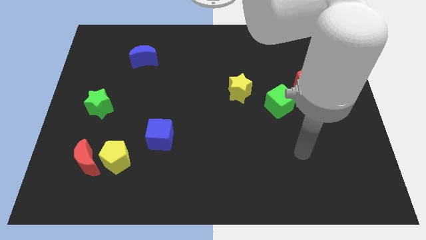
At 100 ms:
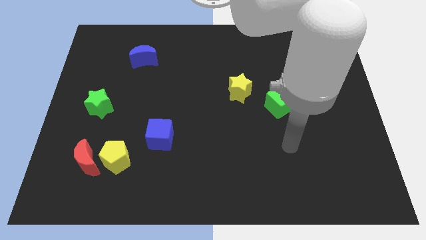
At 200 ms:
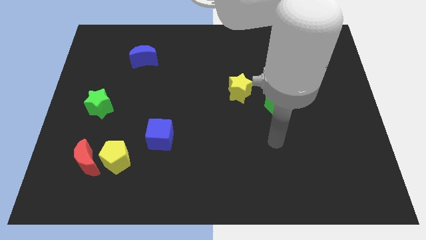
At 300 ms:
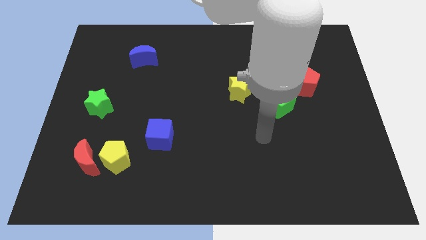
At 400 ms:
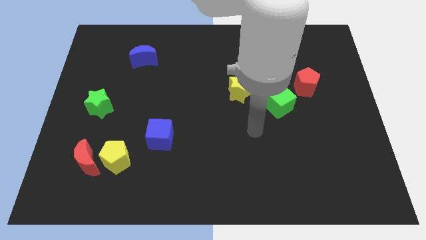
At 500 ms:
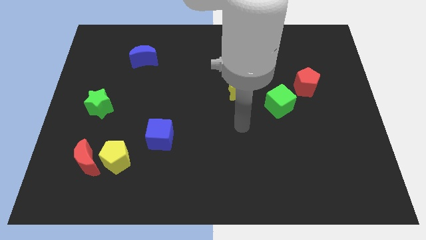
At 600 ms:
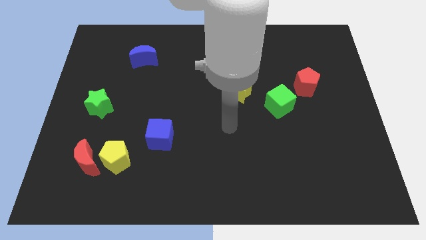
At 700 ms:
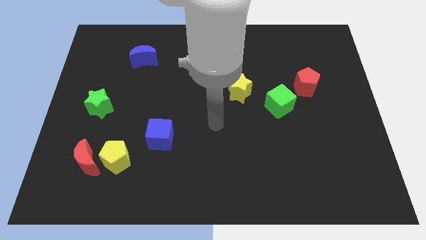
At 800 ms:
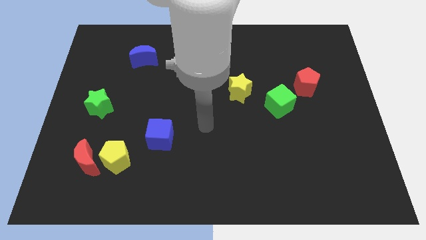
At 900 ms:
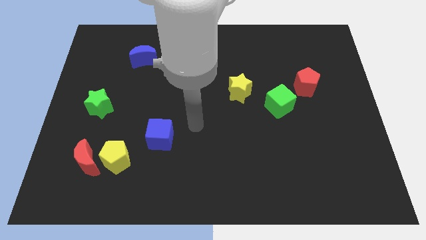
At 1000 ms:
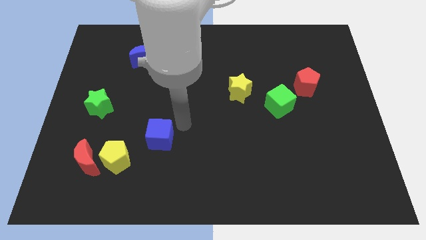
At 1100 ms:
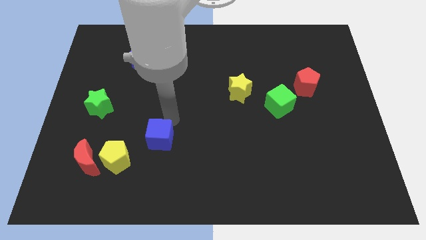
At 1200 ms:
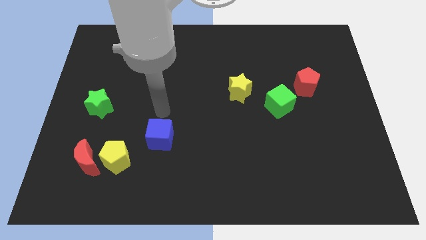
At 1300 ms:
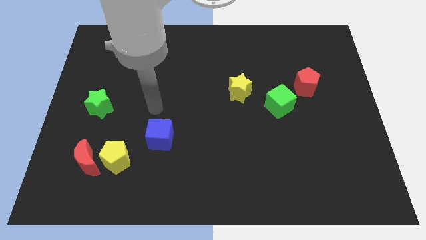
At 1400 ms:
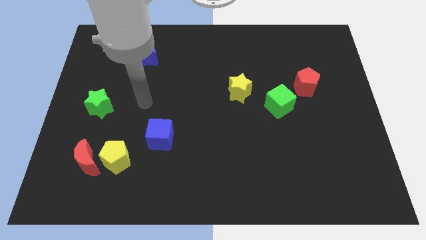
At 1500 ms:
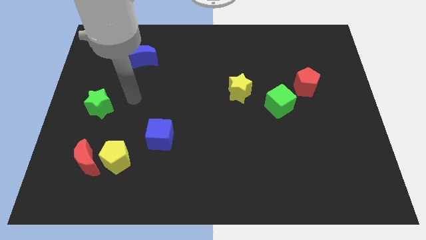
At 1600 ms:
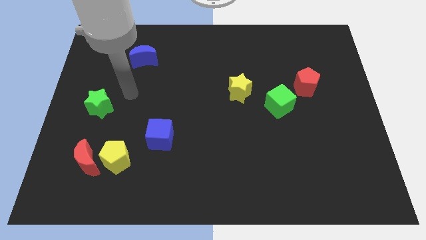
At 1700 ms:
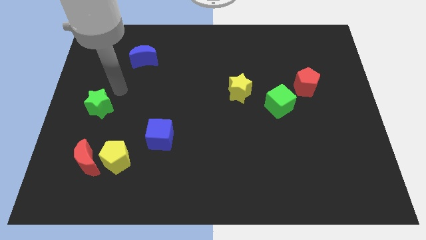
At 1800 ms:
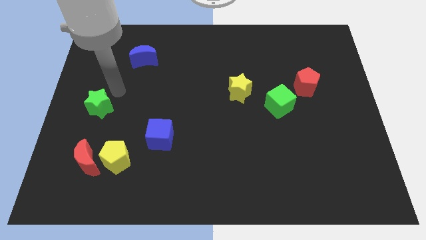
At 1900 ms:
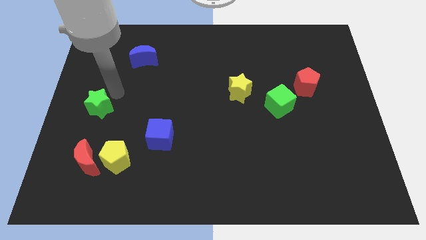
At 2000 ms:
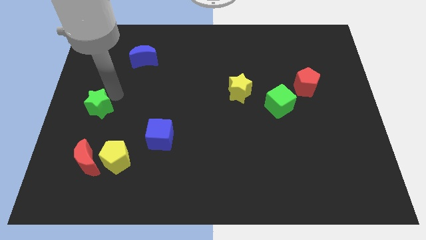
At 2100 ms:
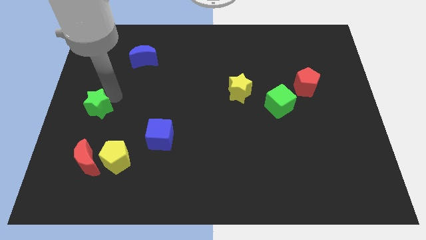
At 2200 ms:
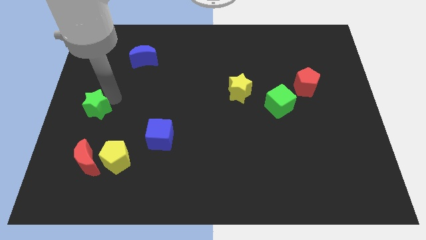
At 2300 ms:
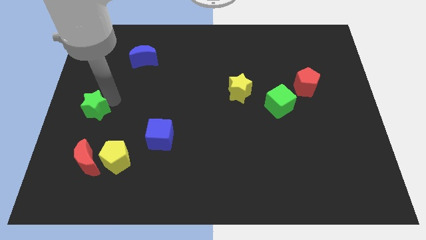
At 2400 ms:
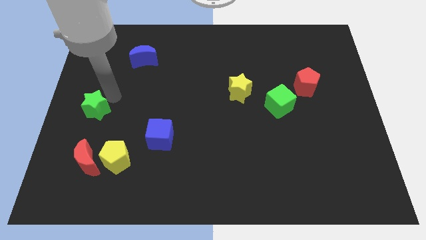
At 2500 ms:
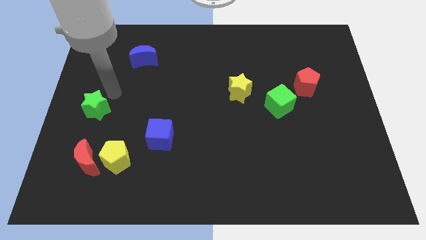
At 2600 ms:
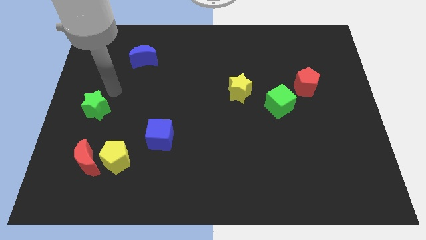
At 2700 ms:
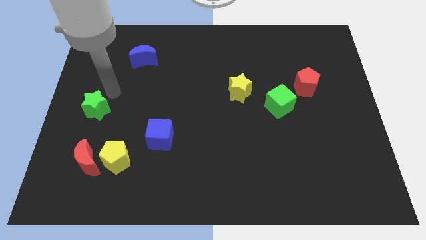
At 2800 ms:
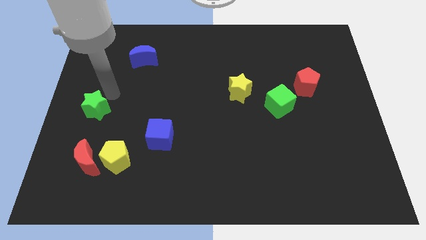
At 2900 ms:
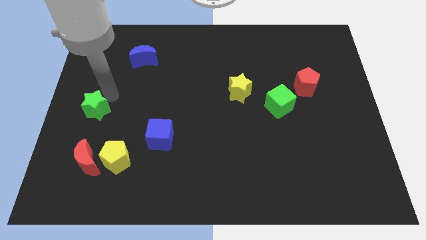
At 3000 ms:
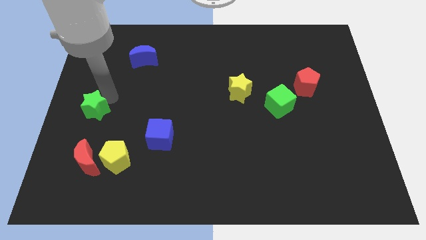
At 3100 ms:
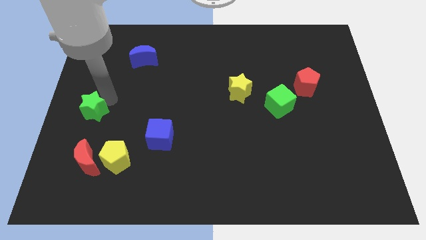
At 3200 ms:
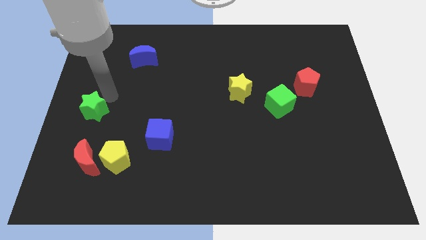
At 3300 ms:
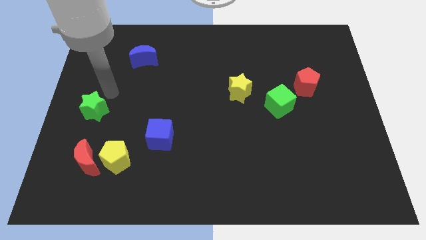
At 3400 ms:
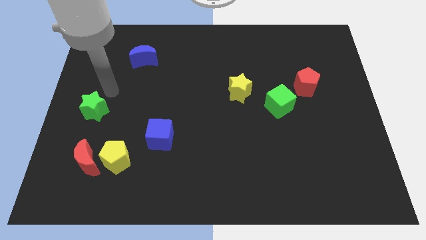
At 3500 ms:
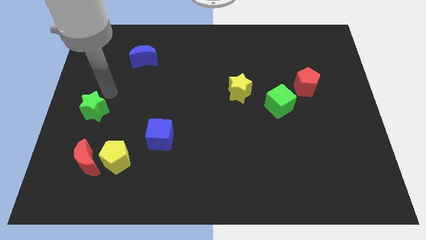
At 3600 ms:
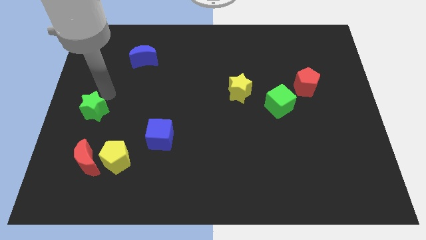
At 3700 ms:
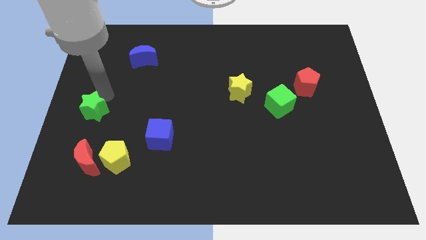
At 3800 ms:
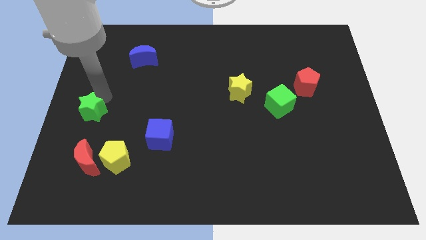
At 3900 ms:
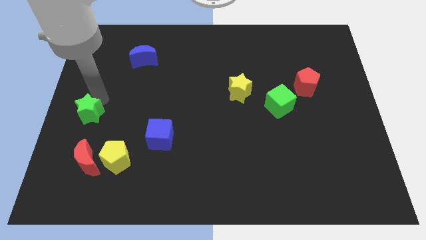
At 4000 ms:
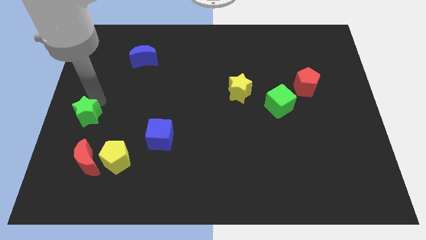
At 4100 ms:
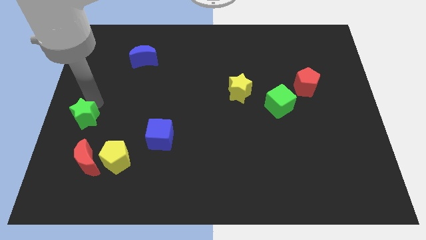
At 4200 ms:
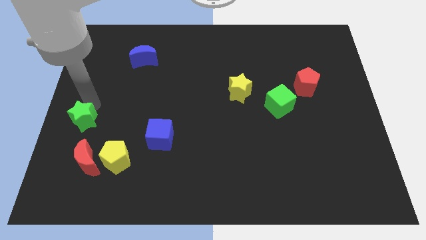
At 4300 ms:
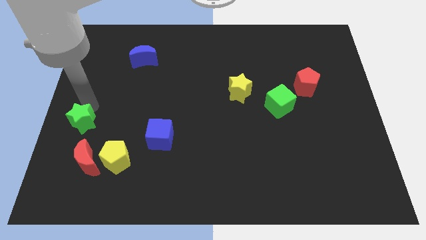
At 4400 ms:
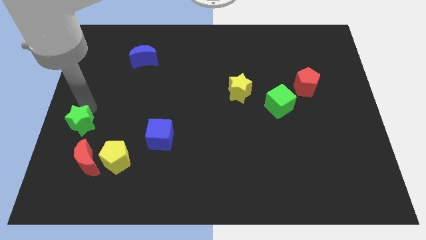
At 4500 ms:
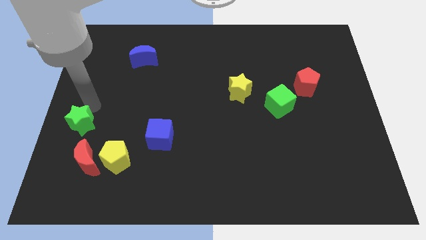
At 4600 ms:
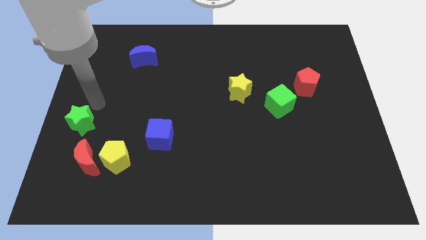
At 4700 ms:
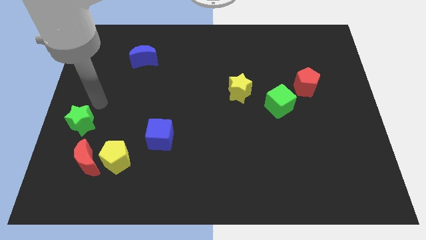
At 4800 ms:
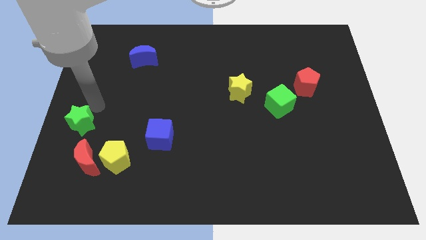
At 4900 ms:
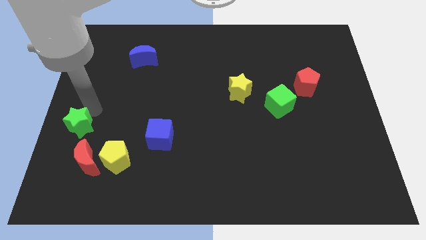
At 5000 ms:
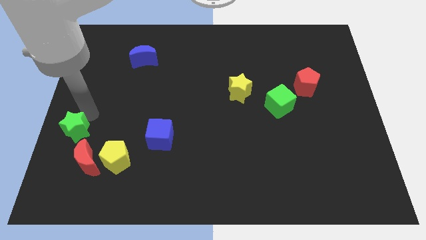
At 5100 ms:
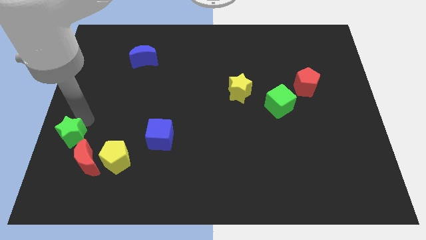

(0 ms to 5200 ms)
slightly push the green star downwards

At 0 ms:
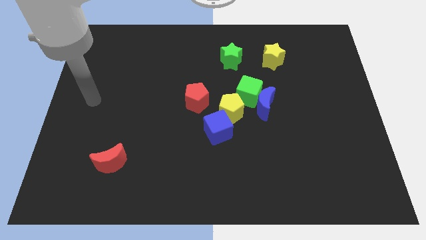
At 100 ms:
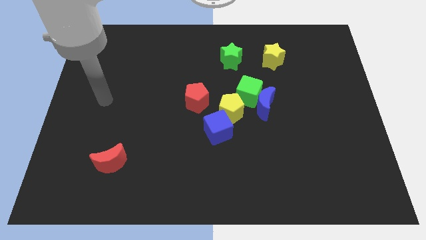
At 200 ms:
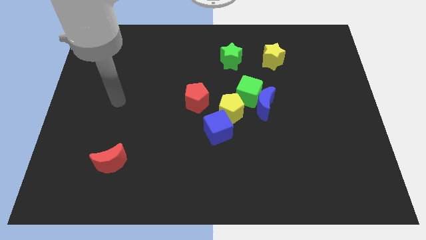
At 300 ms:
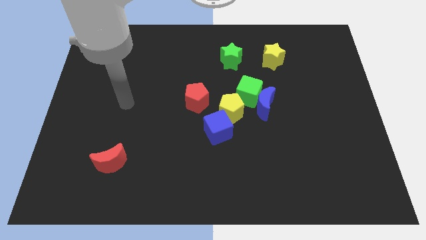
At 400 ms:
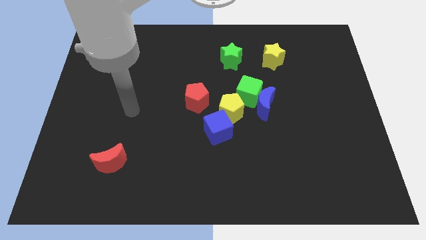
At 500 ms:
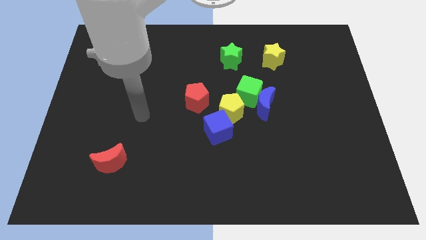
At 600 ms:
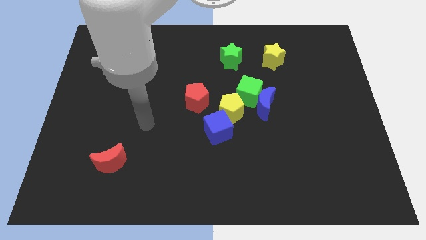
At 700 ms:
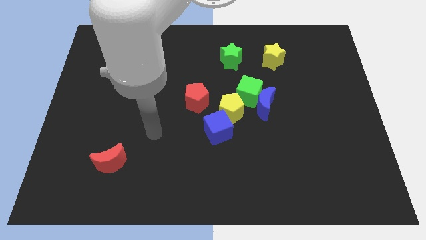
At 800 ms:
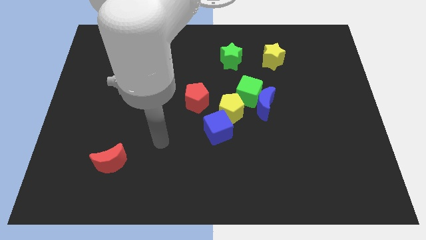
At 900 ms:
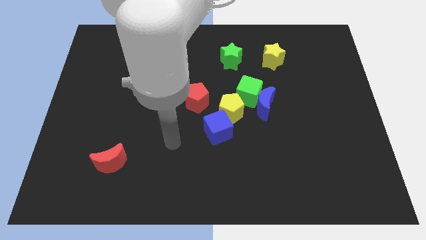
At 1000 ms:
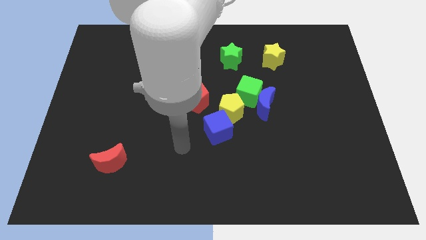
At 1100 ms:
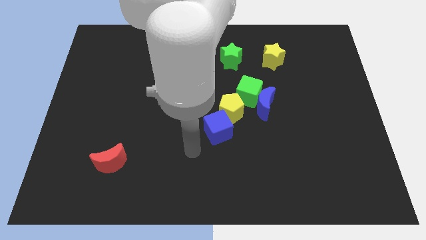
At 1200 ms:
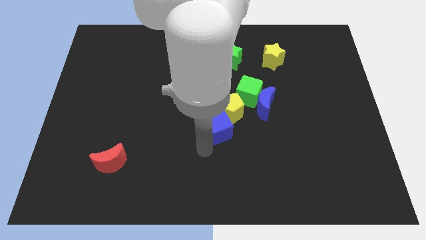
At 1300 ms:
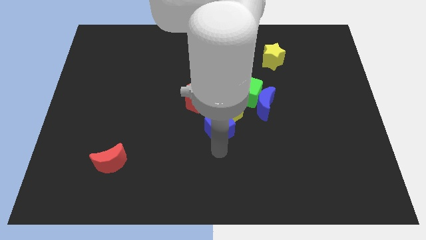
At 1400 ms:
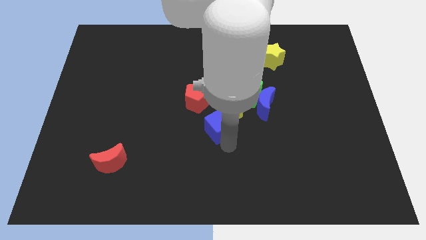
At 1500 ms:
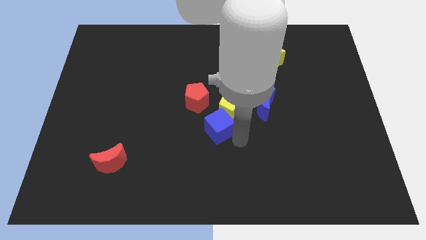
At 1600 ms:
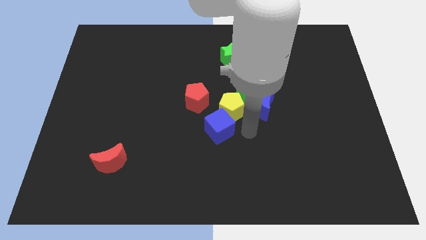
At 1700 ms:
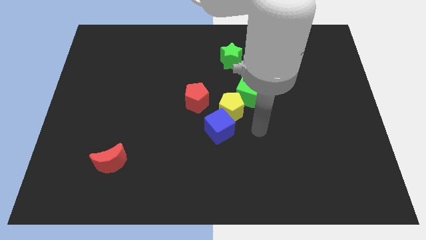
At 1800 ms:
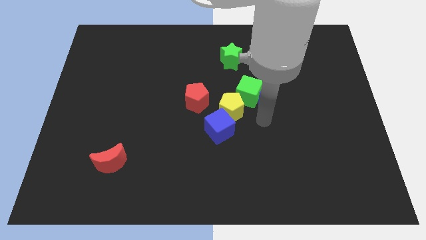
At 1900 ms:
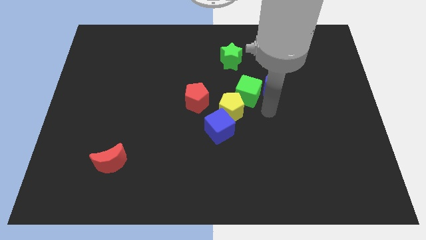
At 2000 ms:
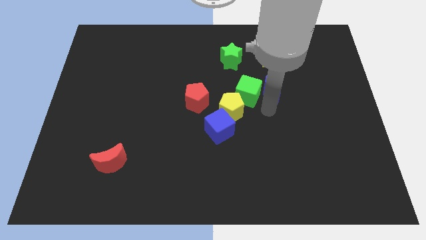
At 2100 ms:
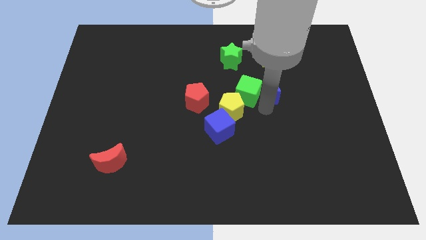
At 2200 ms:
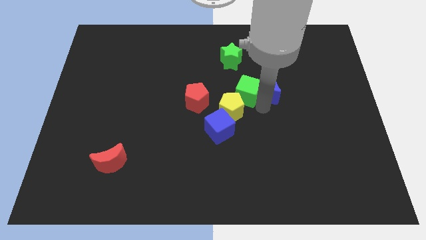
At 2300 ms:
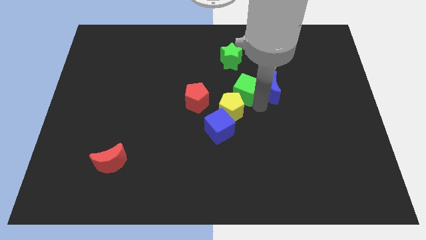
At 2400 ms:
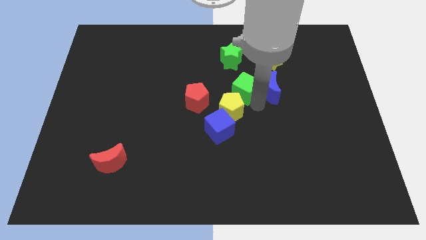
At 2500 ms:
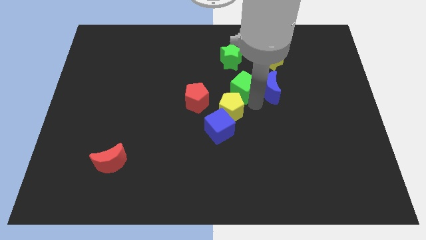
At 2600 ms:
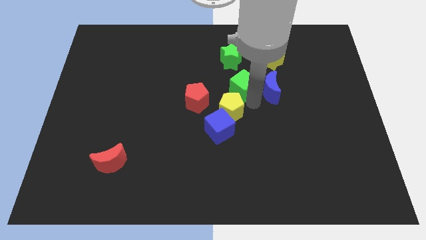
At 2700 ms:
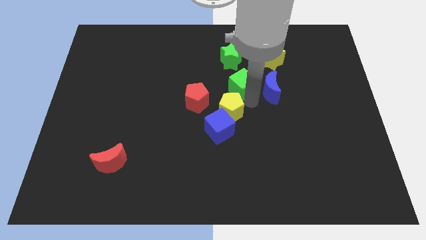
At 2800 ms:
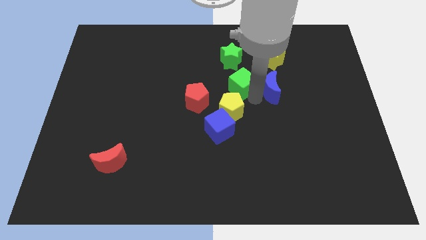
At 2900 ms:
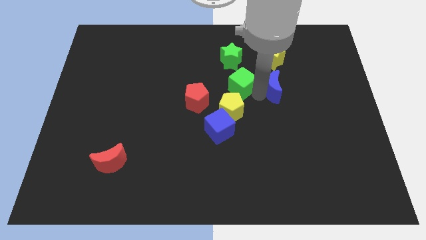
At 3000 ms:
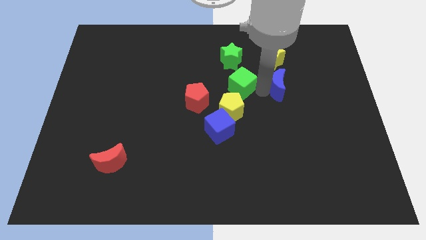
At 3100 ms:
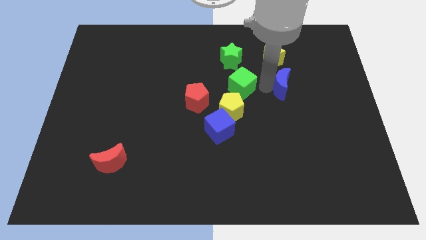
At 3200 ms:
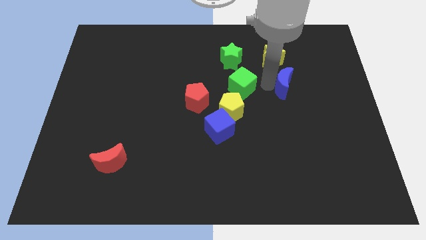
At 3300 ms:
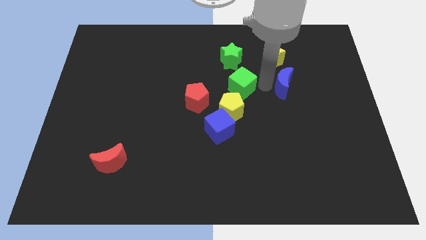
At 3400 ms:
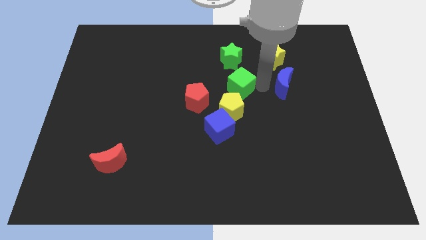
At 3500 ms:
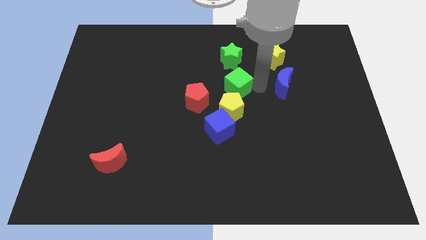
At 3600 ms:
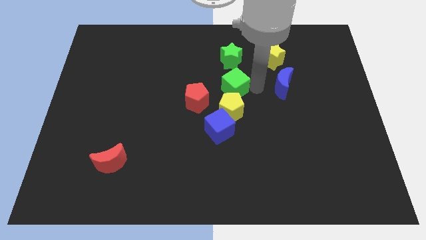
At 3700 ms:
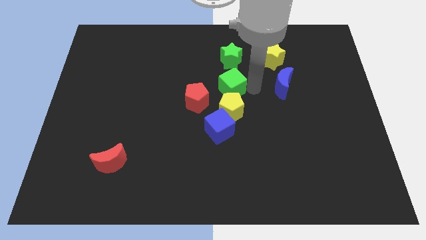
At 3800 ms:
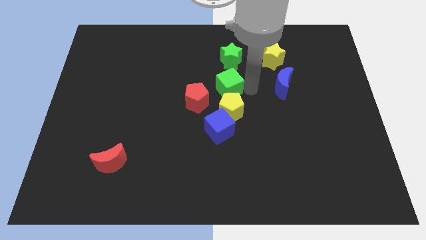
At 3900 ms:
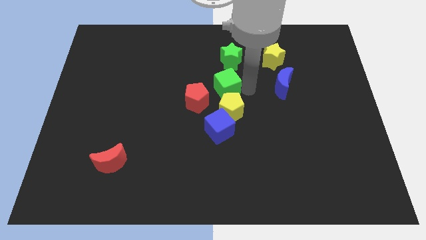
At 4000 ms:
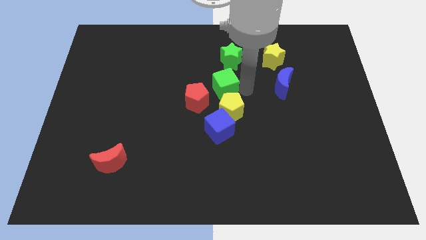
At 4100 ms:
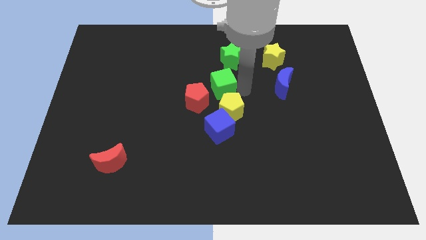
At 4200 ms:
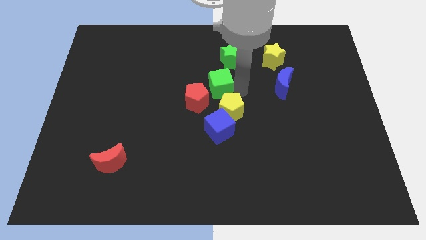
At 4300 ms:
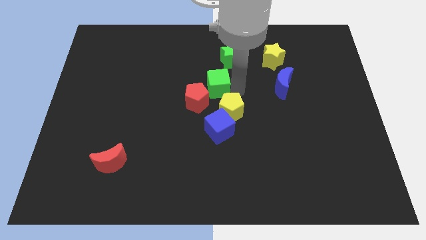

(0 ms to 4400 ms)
slide the green cube left a little bit
